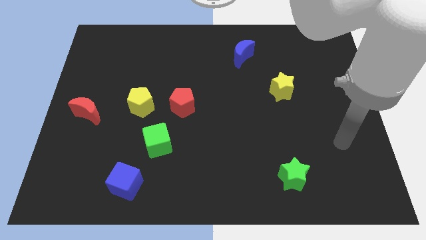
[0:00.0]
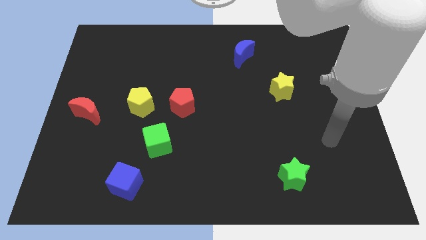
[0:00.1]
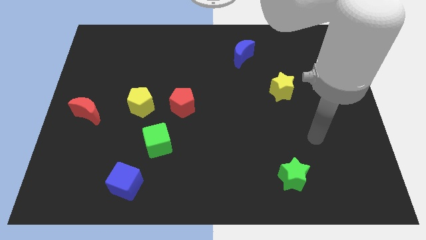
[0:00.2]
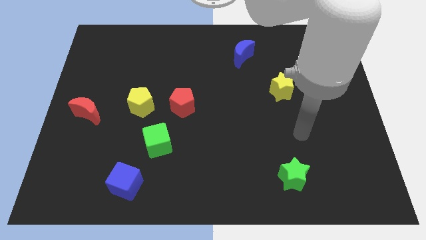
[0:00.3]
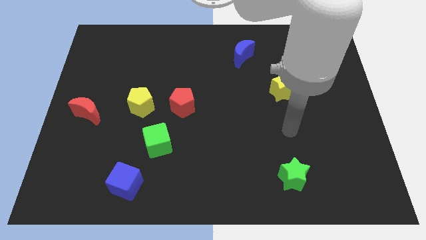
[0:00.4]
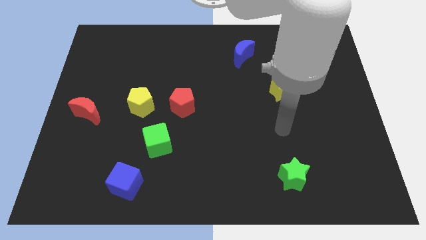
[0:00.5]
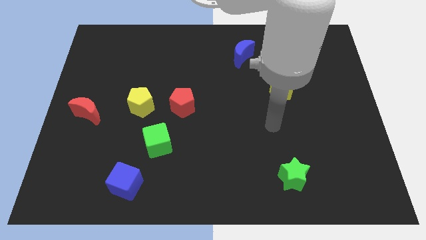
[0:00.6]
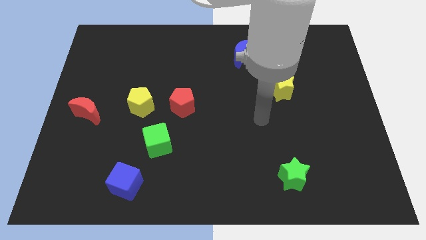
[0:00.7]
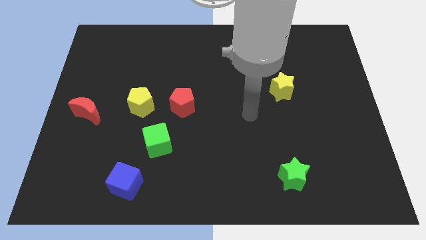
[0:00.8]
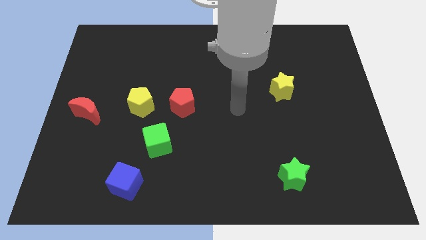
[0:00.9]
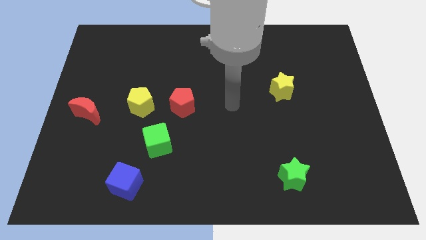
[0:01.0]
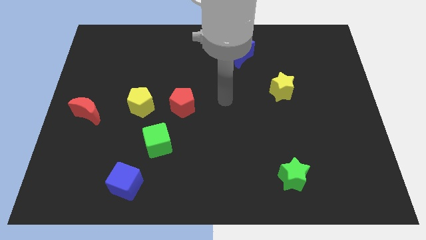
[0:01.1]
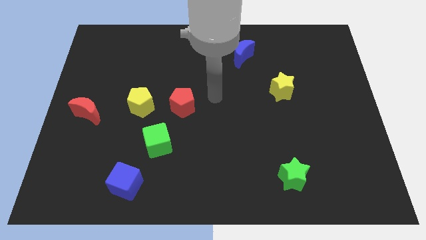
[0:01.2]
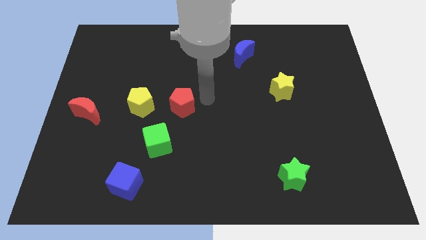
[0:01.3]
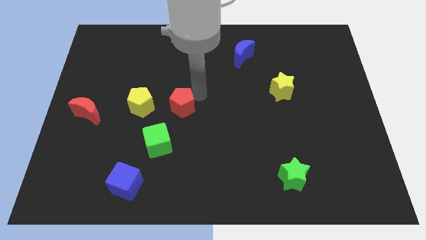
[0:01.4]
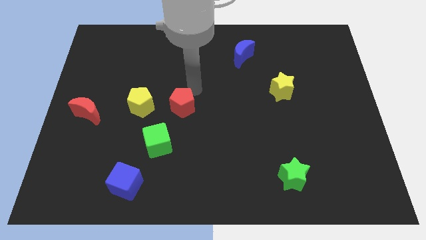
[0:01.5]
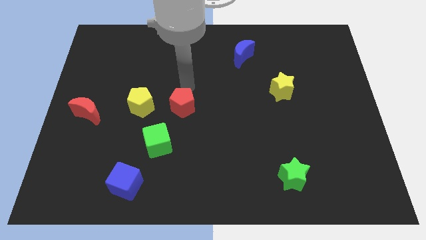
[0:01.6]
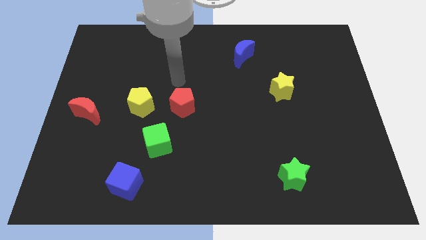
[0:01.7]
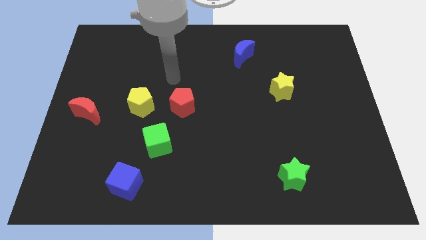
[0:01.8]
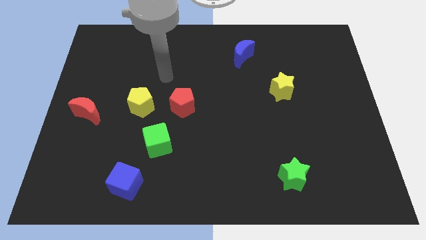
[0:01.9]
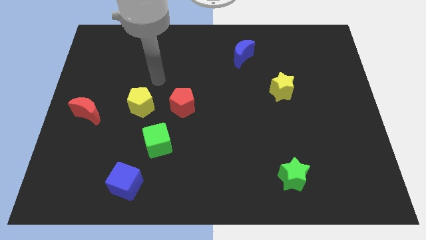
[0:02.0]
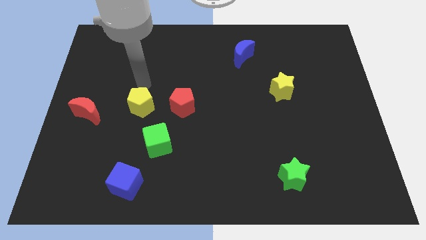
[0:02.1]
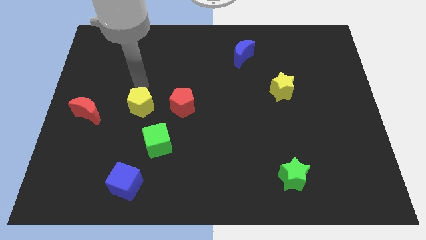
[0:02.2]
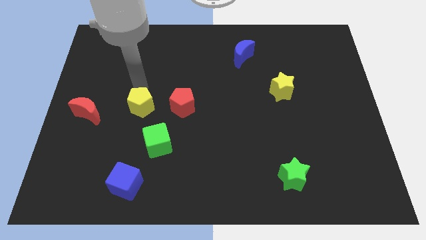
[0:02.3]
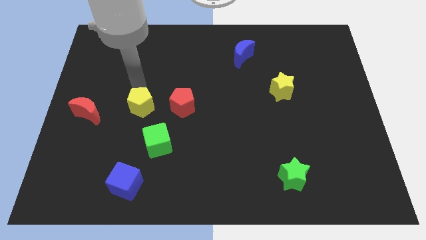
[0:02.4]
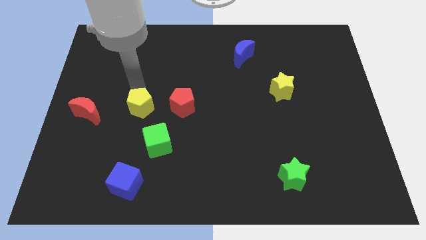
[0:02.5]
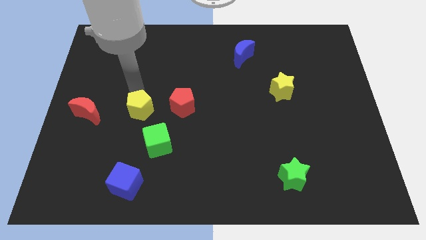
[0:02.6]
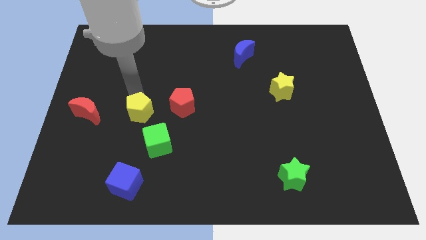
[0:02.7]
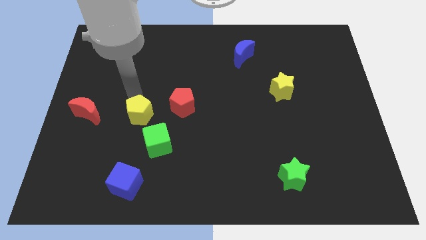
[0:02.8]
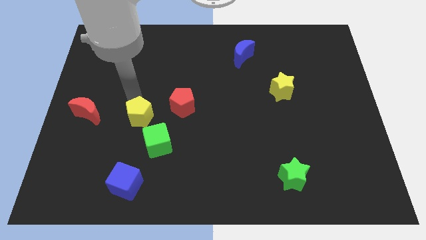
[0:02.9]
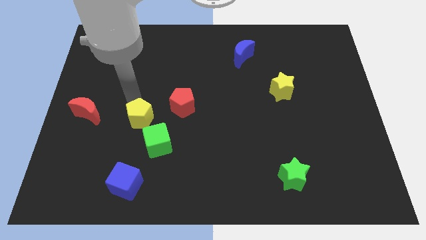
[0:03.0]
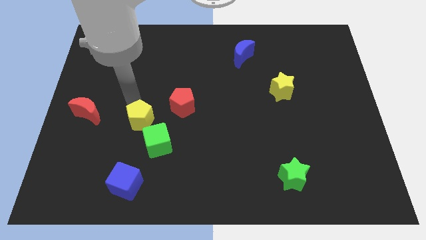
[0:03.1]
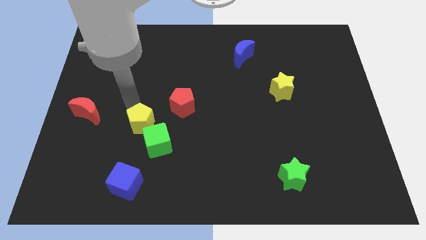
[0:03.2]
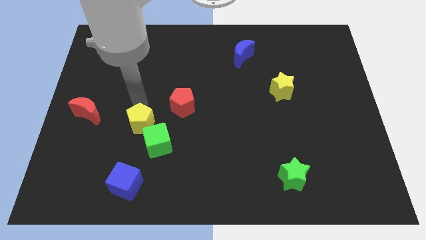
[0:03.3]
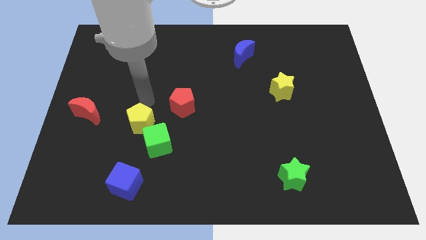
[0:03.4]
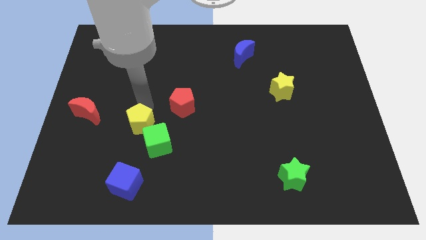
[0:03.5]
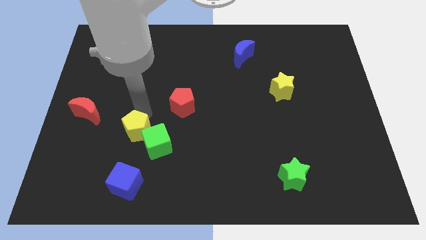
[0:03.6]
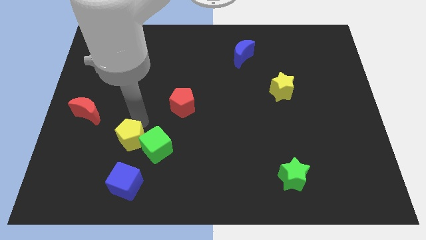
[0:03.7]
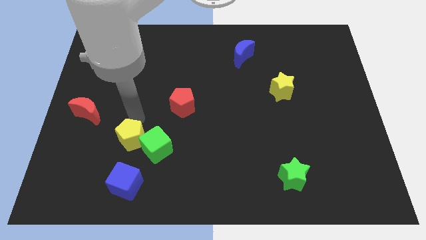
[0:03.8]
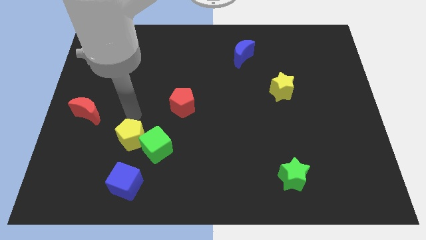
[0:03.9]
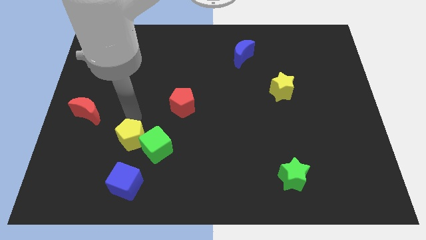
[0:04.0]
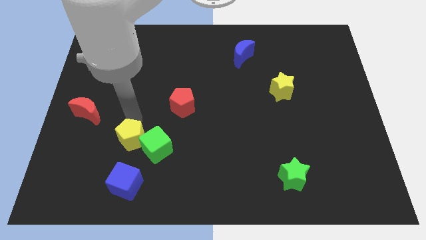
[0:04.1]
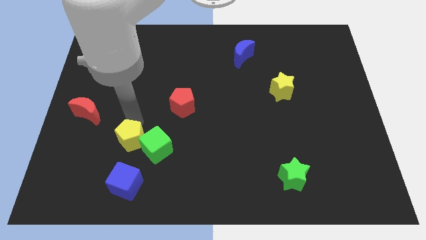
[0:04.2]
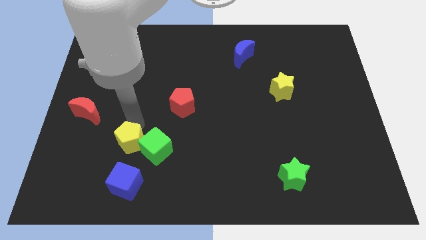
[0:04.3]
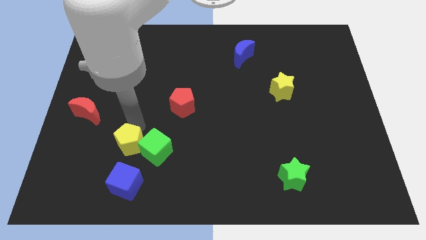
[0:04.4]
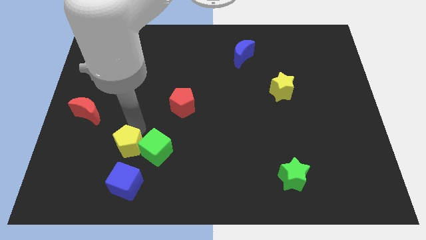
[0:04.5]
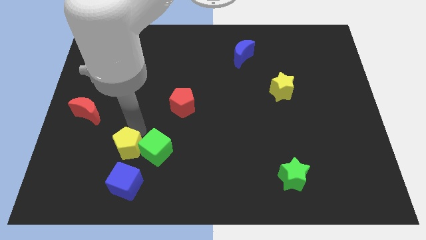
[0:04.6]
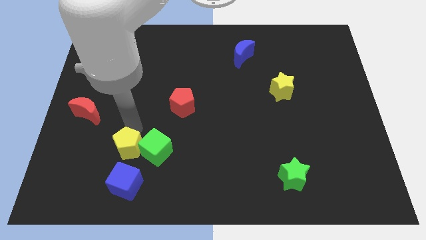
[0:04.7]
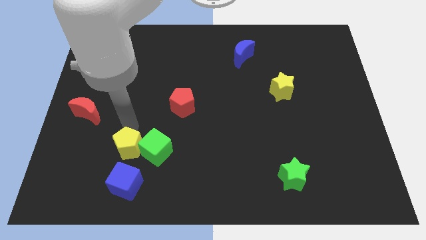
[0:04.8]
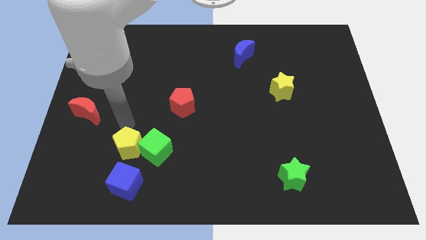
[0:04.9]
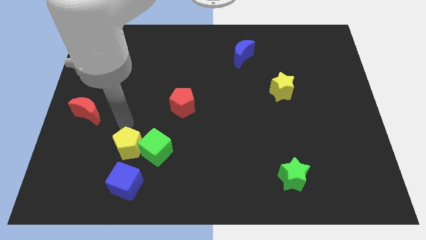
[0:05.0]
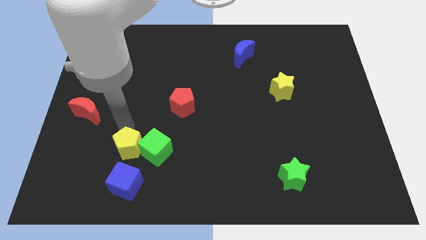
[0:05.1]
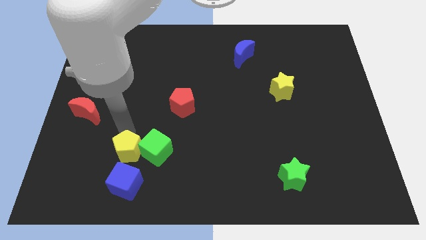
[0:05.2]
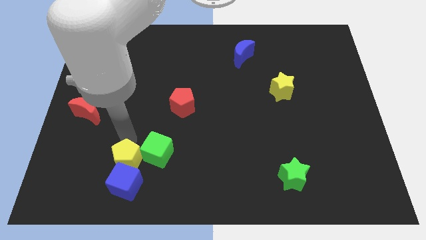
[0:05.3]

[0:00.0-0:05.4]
push the yellow pentagon close to the blue cube
